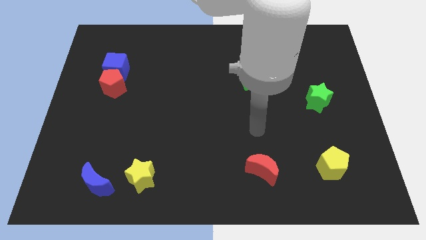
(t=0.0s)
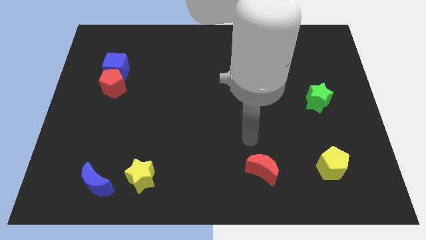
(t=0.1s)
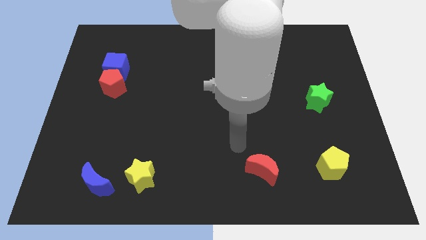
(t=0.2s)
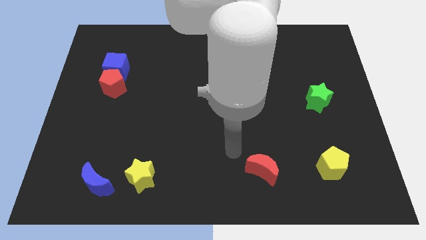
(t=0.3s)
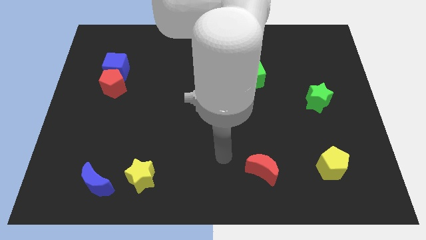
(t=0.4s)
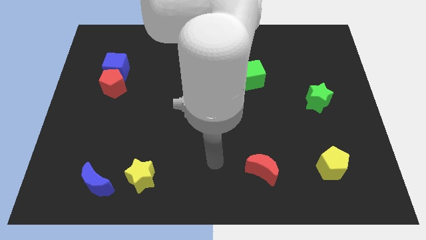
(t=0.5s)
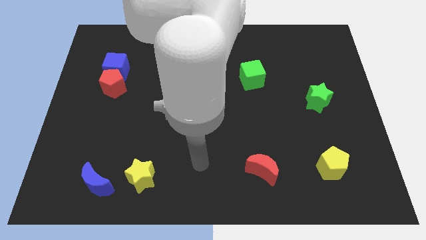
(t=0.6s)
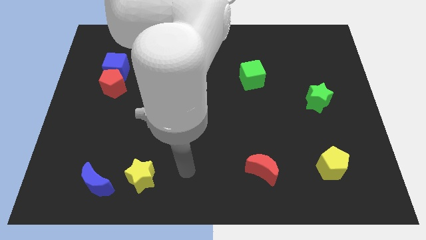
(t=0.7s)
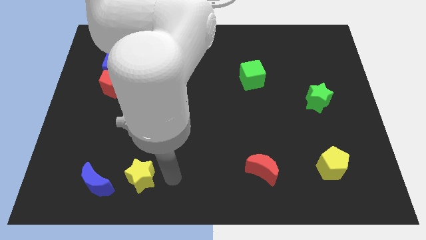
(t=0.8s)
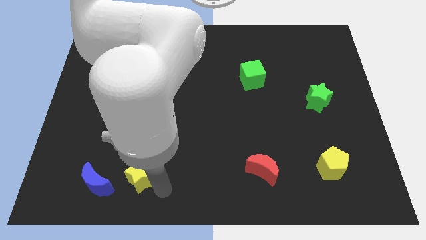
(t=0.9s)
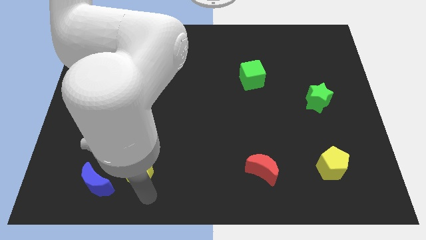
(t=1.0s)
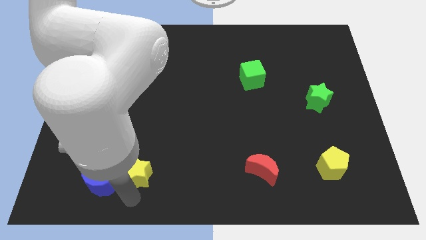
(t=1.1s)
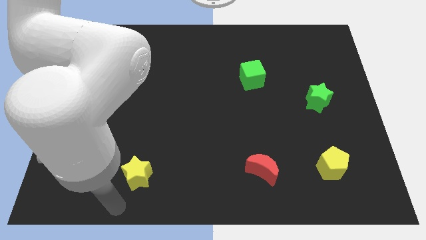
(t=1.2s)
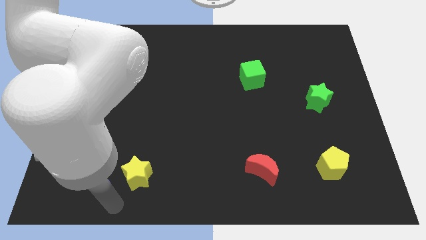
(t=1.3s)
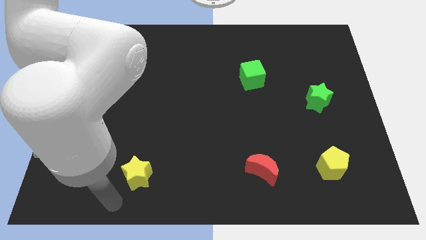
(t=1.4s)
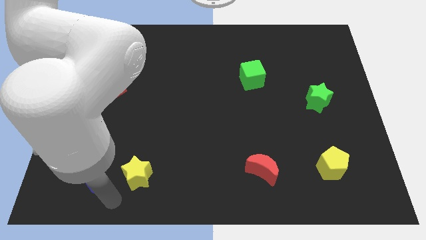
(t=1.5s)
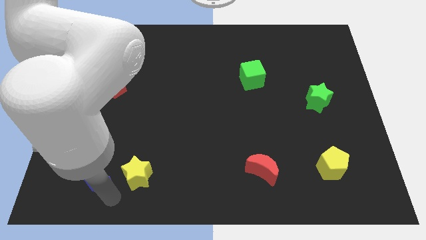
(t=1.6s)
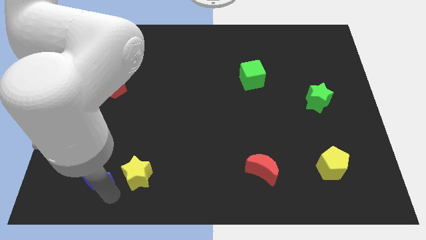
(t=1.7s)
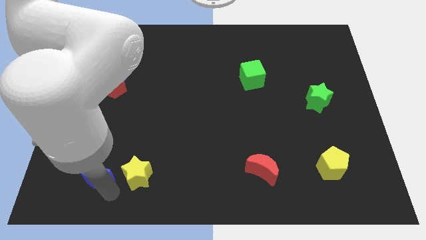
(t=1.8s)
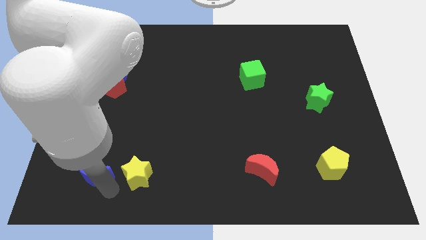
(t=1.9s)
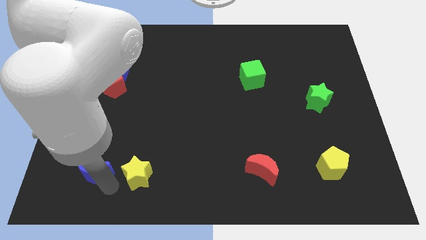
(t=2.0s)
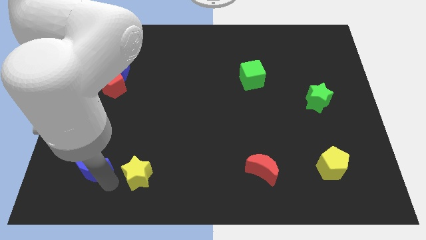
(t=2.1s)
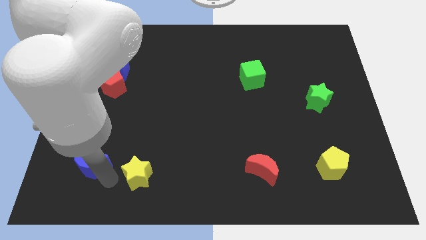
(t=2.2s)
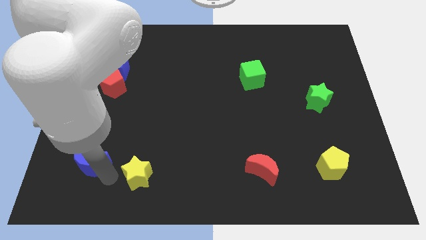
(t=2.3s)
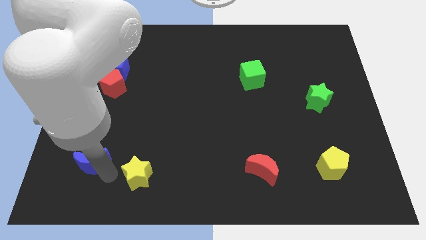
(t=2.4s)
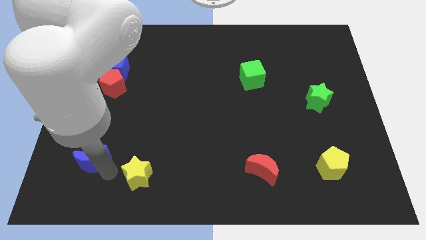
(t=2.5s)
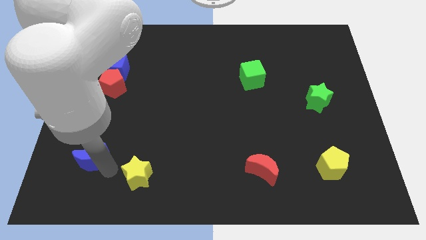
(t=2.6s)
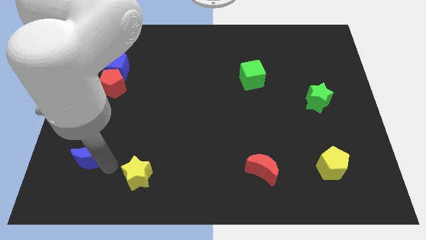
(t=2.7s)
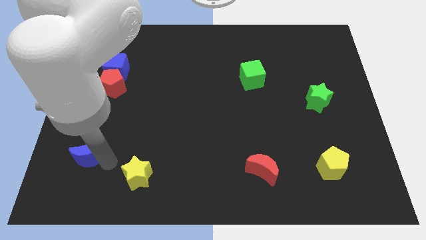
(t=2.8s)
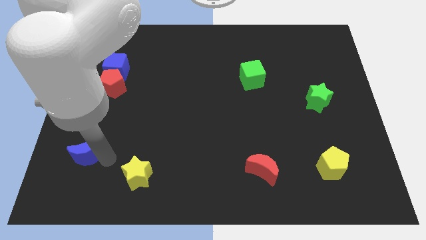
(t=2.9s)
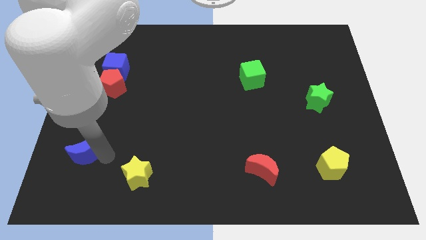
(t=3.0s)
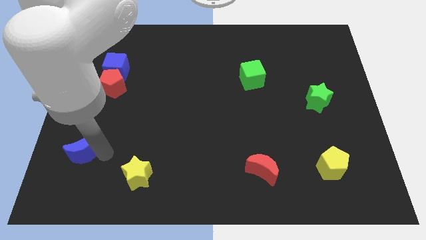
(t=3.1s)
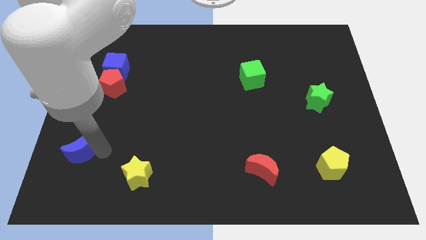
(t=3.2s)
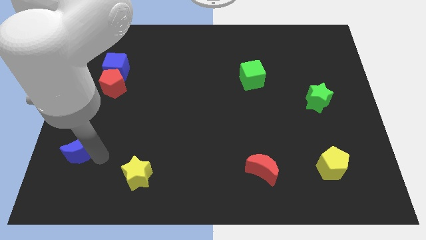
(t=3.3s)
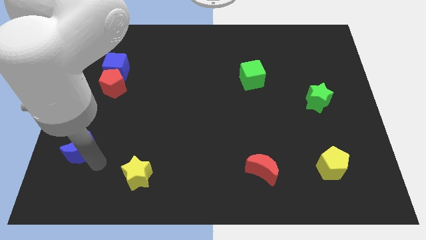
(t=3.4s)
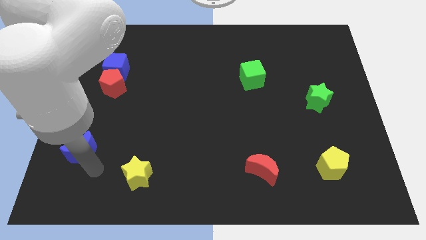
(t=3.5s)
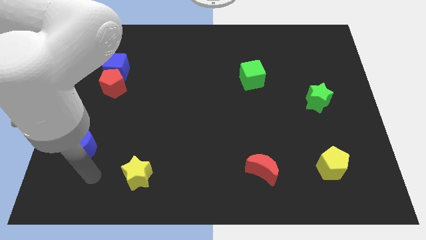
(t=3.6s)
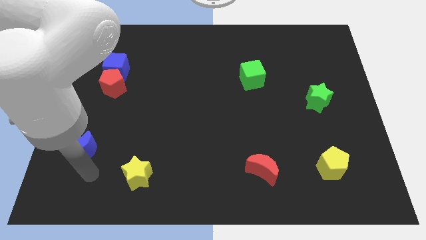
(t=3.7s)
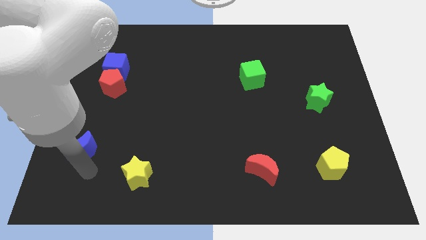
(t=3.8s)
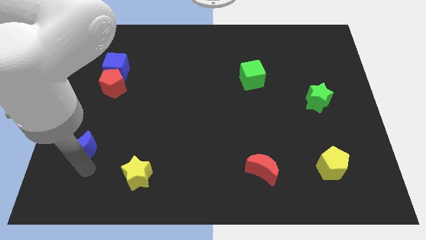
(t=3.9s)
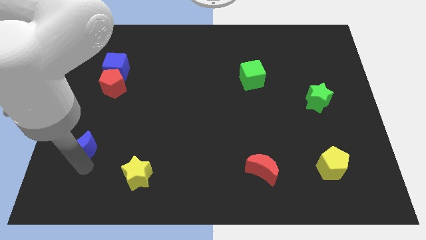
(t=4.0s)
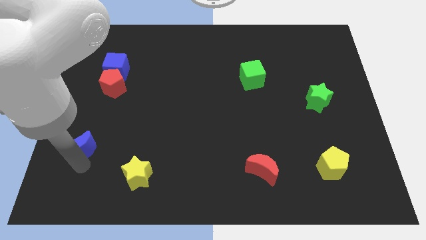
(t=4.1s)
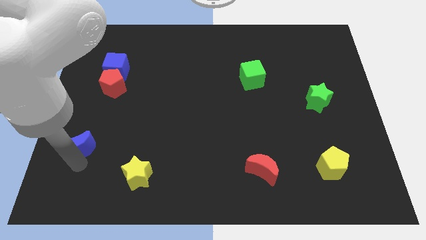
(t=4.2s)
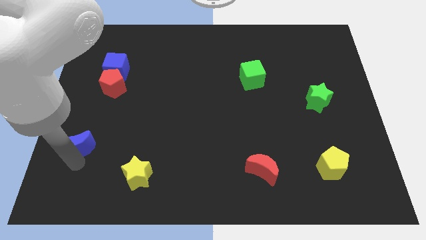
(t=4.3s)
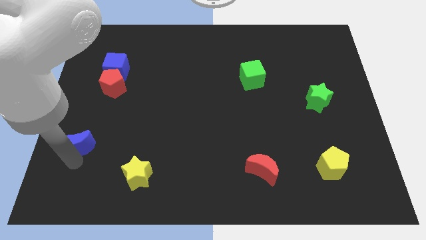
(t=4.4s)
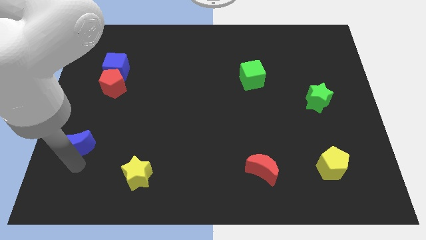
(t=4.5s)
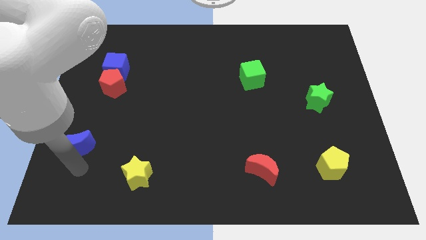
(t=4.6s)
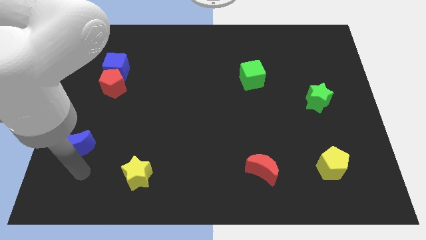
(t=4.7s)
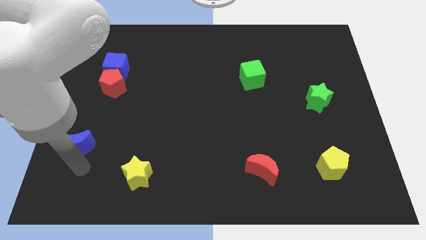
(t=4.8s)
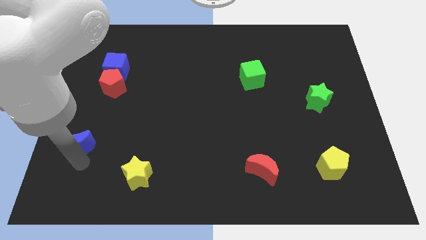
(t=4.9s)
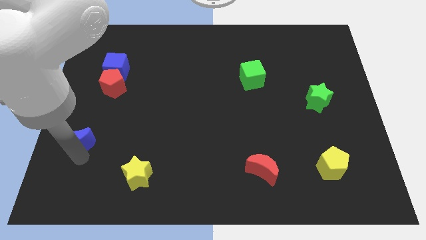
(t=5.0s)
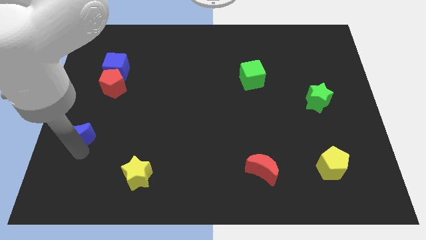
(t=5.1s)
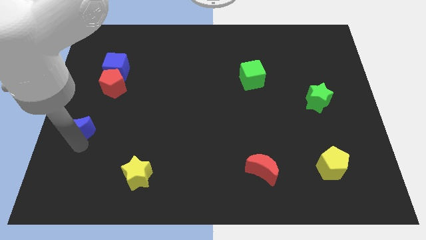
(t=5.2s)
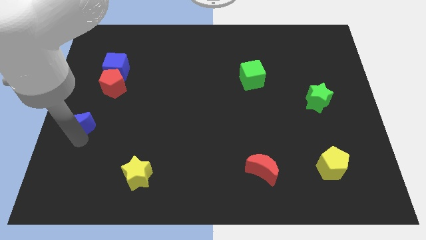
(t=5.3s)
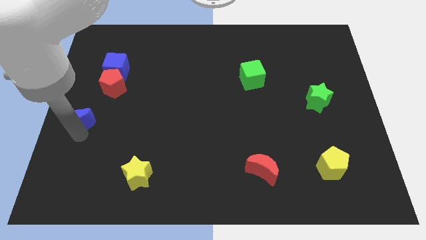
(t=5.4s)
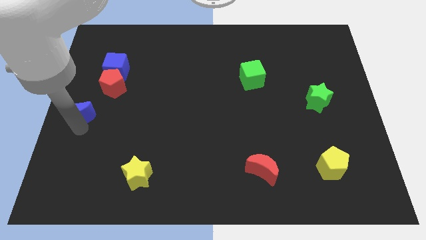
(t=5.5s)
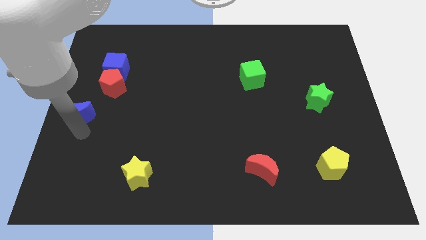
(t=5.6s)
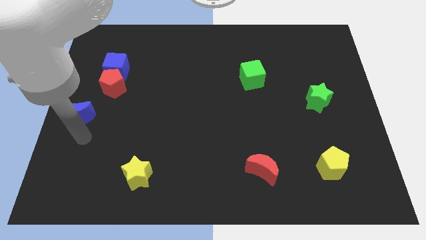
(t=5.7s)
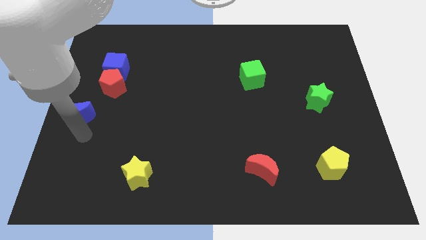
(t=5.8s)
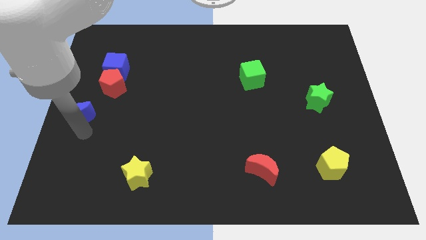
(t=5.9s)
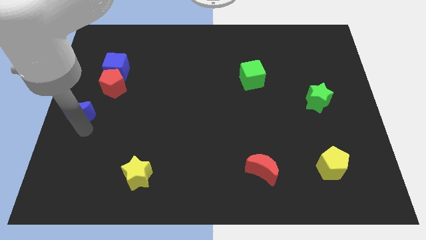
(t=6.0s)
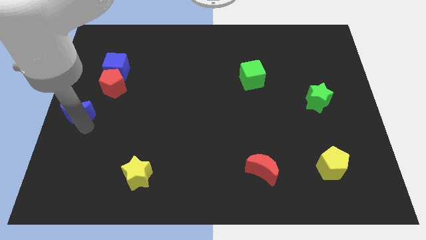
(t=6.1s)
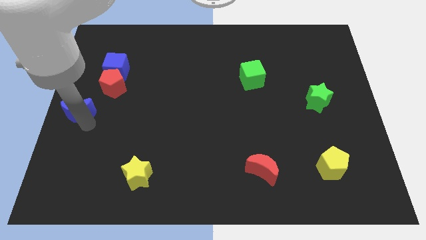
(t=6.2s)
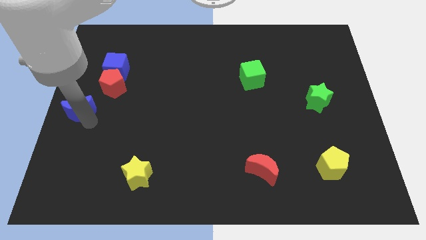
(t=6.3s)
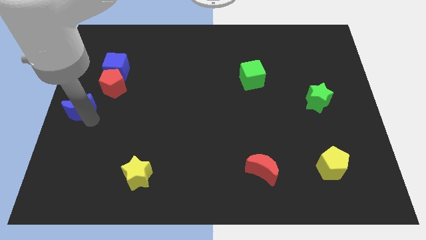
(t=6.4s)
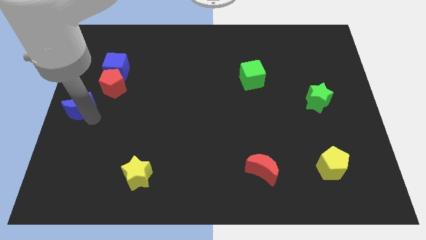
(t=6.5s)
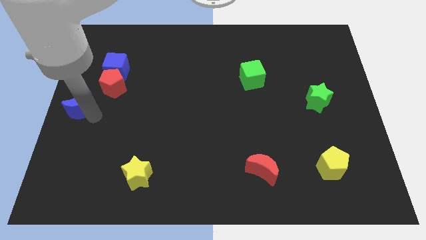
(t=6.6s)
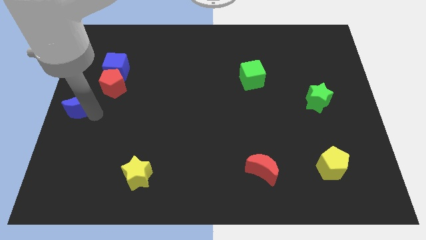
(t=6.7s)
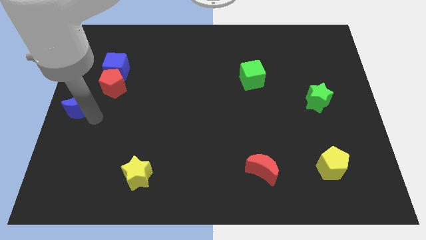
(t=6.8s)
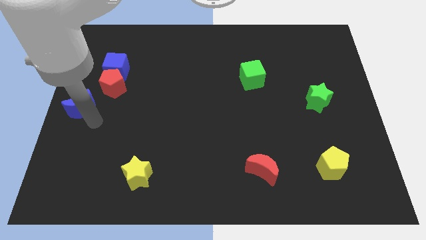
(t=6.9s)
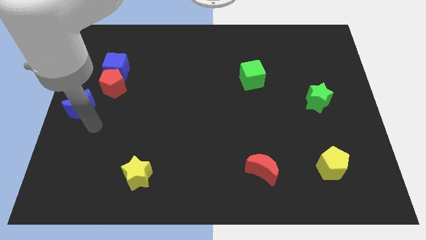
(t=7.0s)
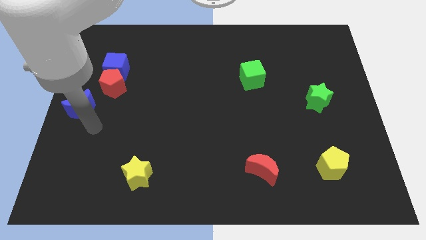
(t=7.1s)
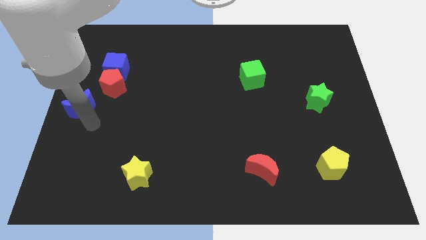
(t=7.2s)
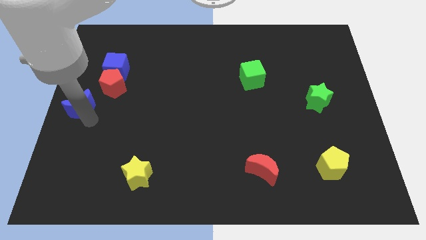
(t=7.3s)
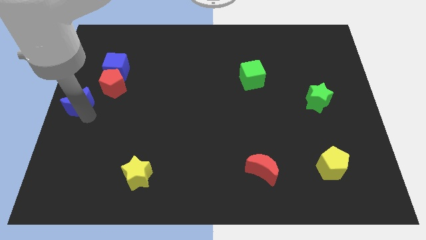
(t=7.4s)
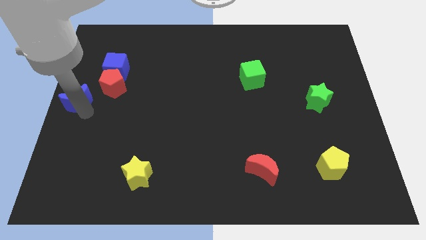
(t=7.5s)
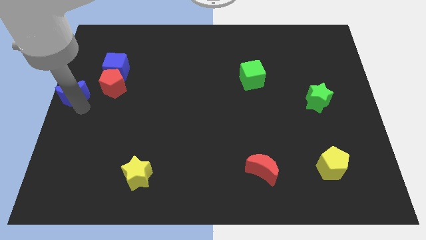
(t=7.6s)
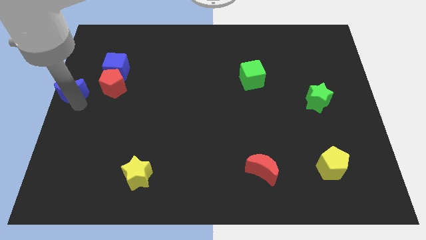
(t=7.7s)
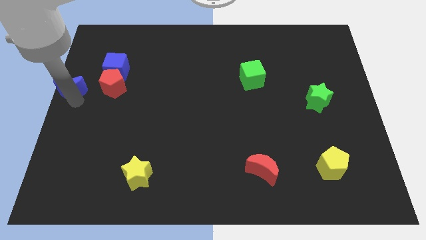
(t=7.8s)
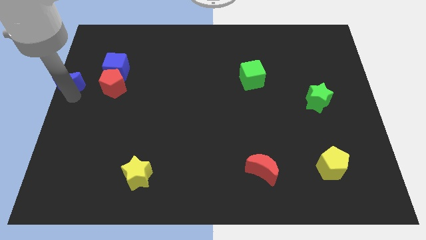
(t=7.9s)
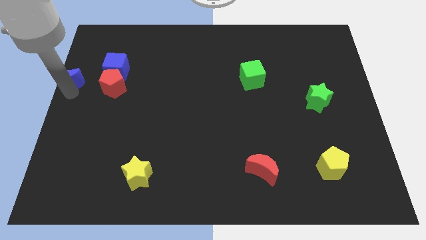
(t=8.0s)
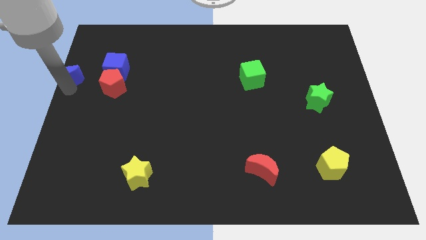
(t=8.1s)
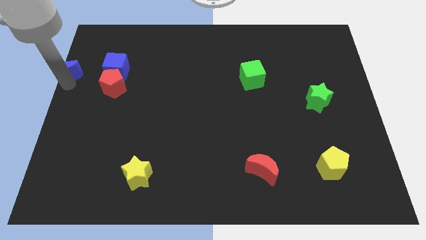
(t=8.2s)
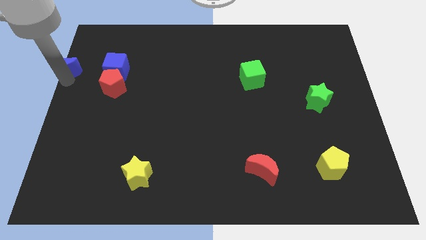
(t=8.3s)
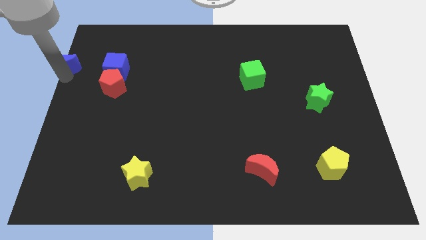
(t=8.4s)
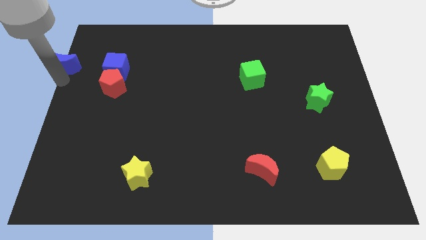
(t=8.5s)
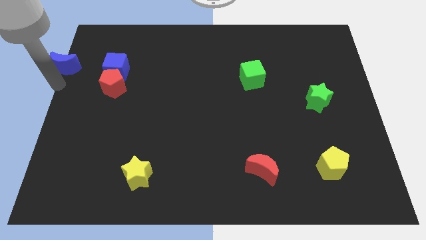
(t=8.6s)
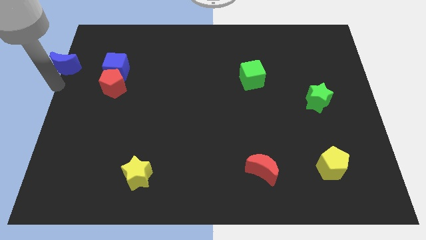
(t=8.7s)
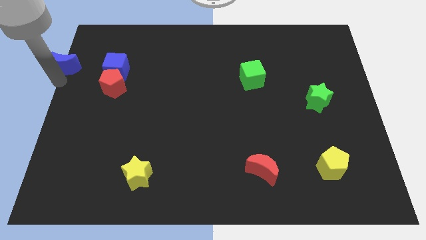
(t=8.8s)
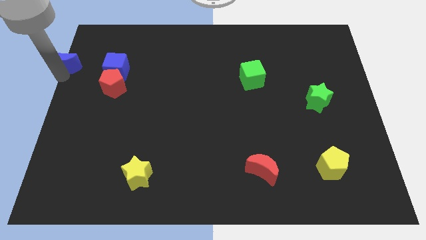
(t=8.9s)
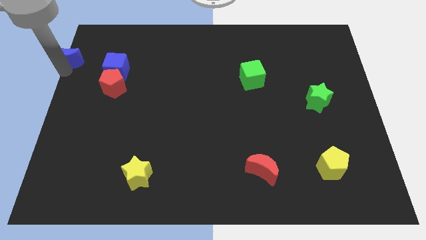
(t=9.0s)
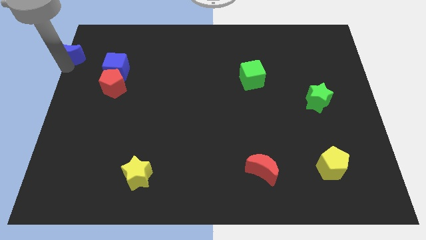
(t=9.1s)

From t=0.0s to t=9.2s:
move the blue moon to the top left
